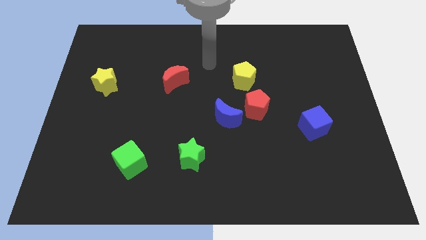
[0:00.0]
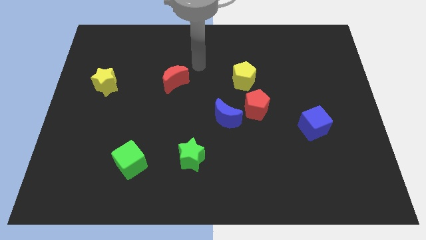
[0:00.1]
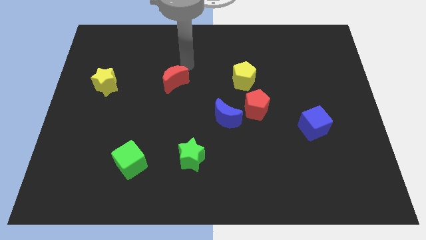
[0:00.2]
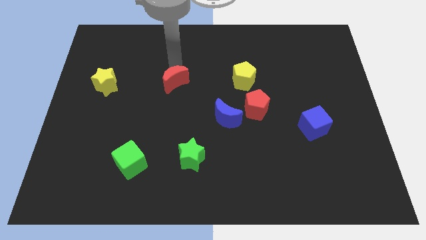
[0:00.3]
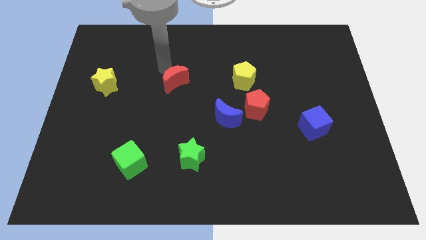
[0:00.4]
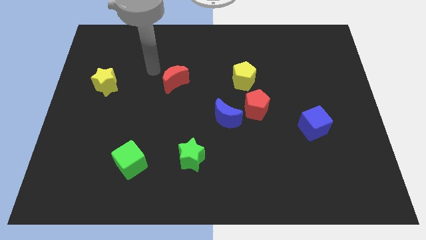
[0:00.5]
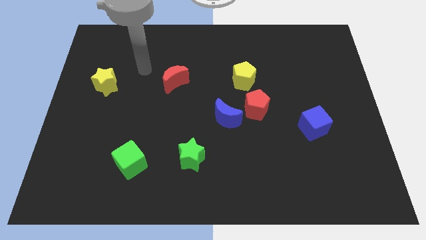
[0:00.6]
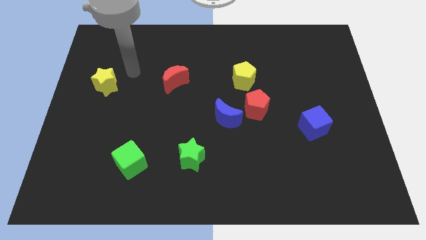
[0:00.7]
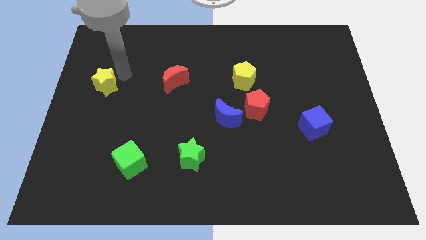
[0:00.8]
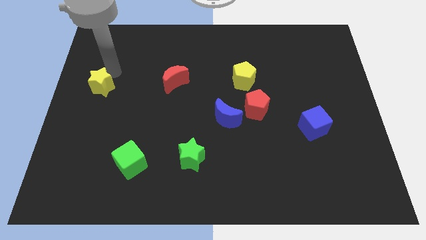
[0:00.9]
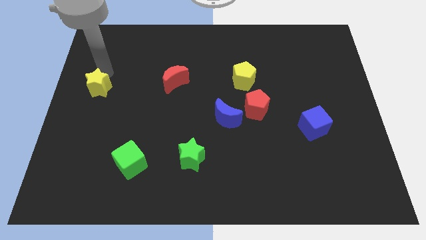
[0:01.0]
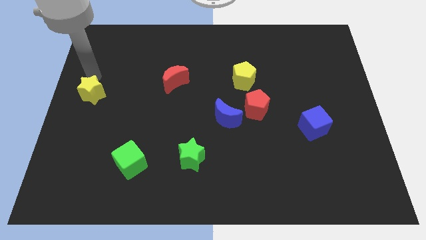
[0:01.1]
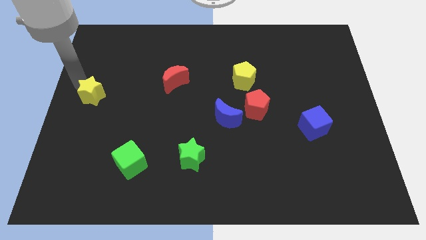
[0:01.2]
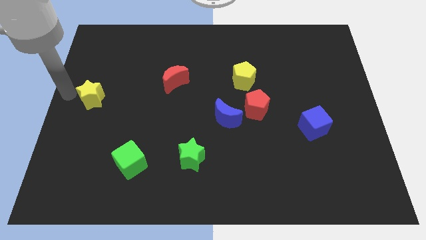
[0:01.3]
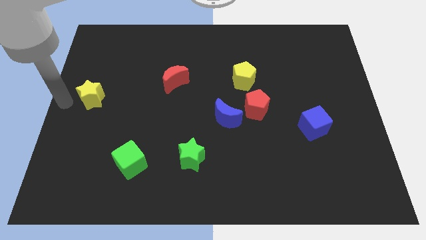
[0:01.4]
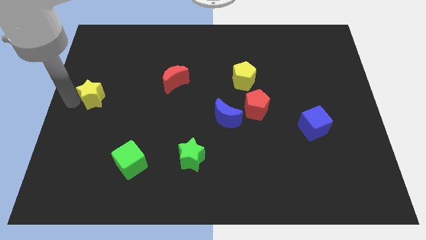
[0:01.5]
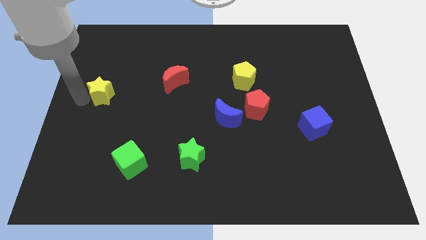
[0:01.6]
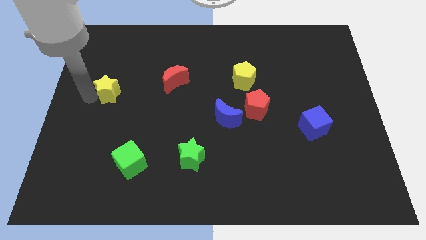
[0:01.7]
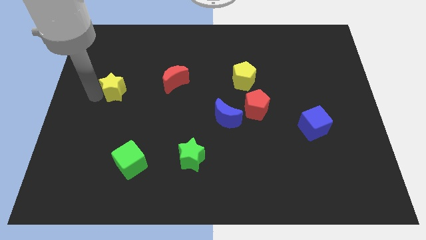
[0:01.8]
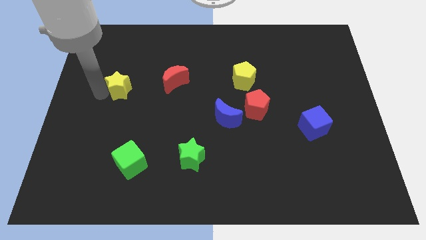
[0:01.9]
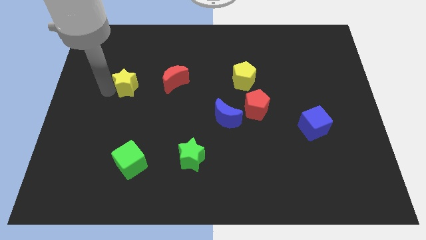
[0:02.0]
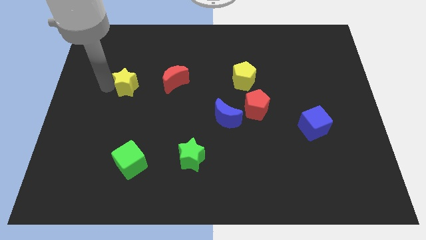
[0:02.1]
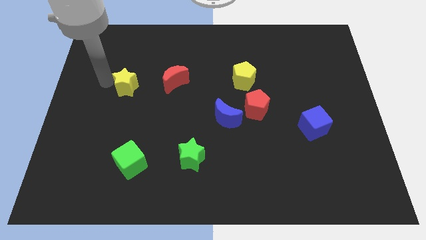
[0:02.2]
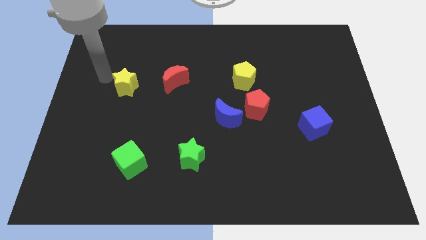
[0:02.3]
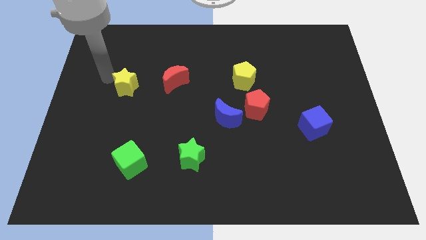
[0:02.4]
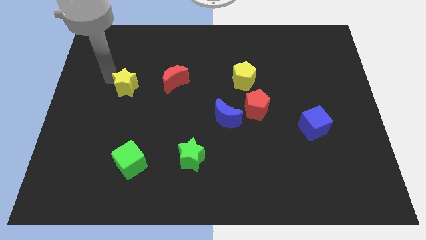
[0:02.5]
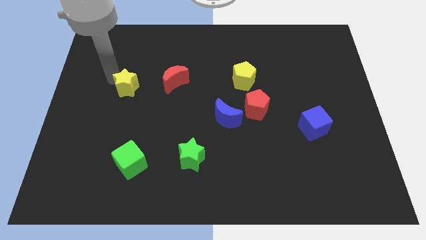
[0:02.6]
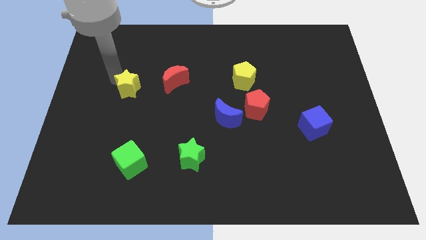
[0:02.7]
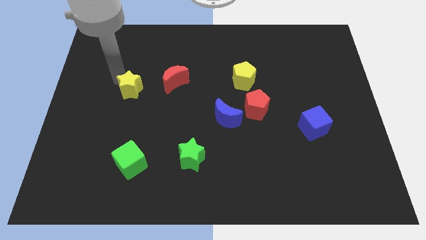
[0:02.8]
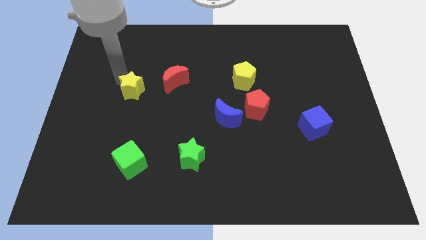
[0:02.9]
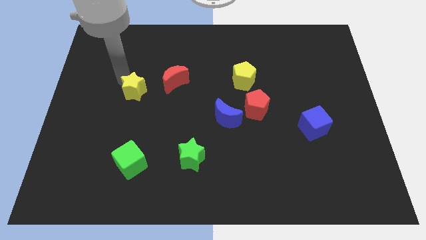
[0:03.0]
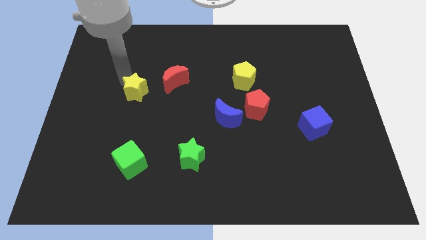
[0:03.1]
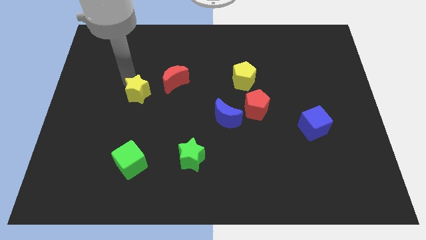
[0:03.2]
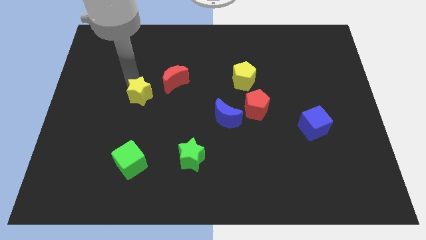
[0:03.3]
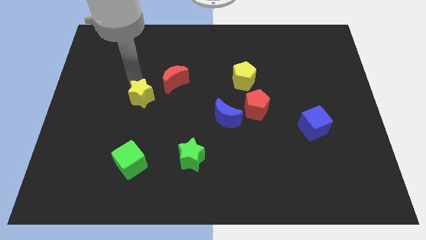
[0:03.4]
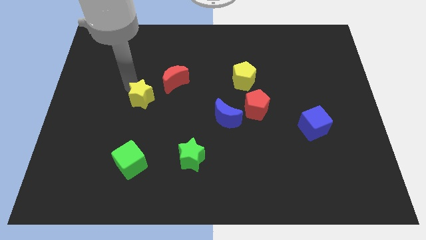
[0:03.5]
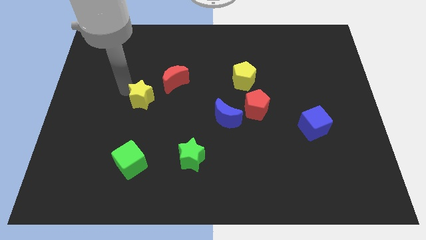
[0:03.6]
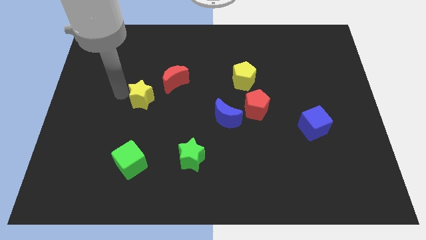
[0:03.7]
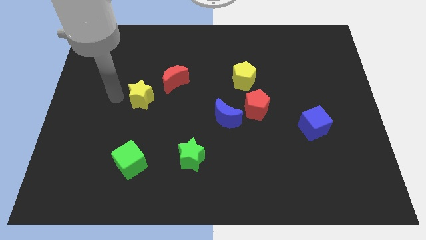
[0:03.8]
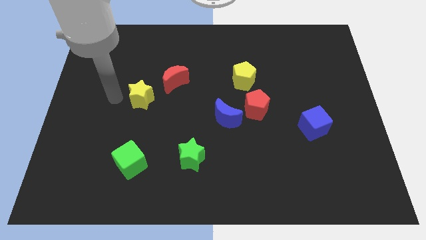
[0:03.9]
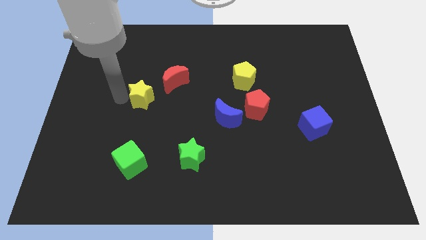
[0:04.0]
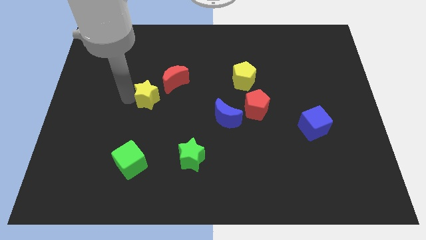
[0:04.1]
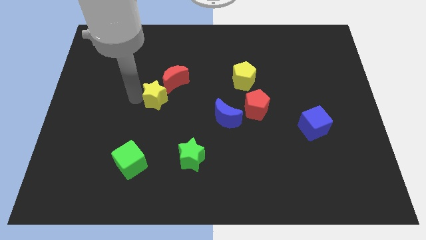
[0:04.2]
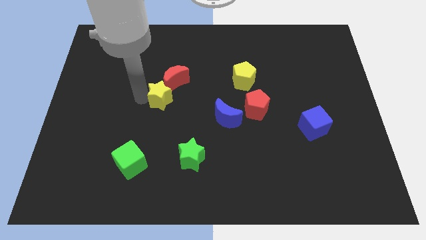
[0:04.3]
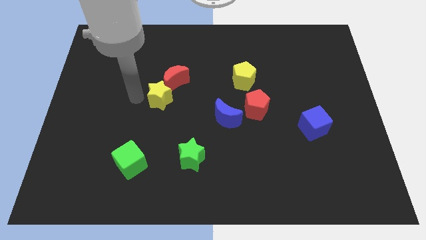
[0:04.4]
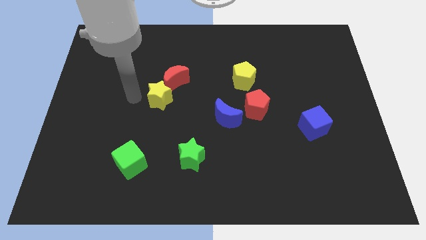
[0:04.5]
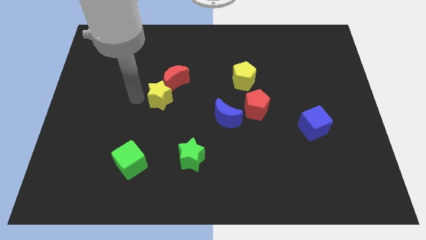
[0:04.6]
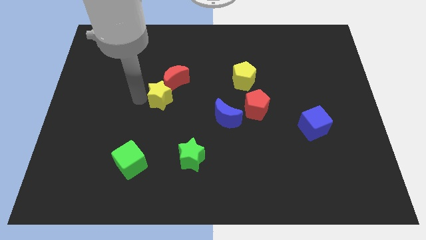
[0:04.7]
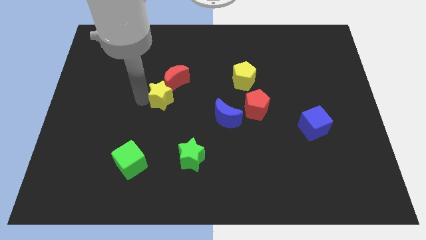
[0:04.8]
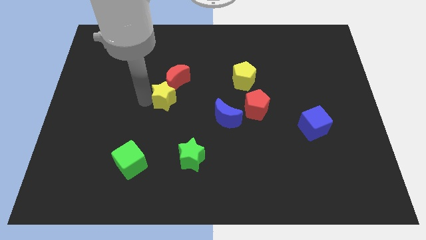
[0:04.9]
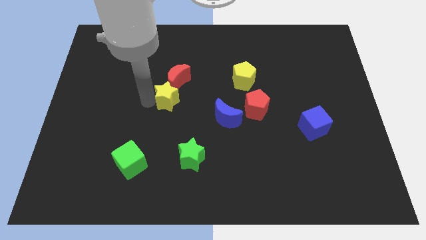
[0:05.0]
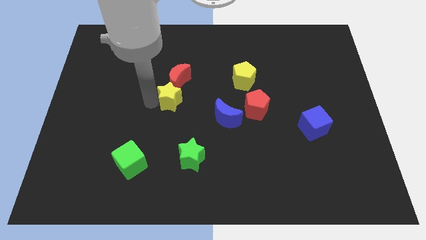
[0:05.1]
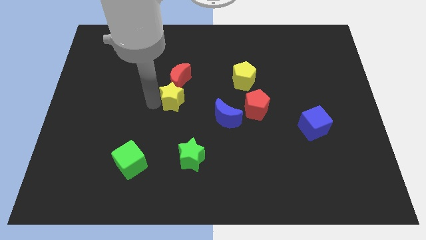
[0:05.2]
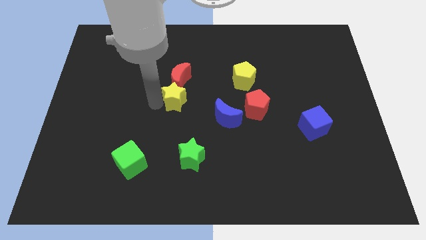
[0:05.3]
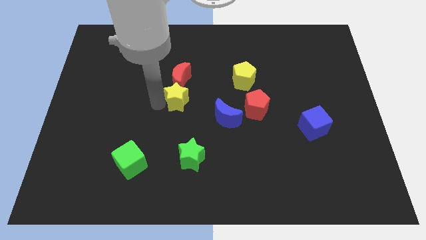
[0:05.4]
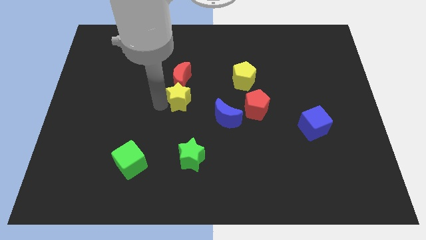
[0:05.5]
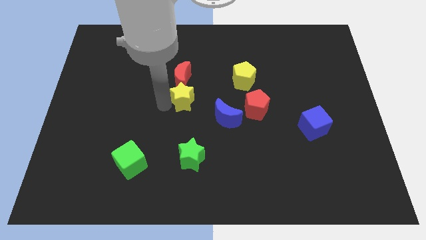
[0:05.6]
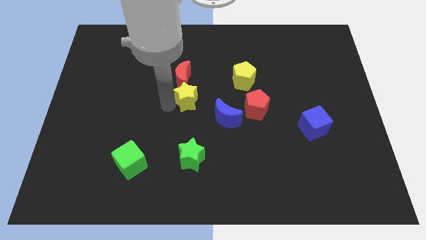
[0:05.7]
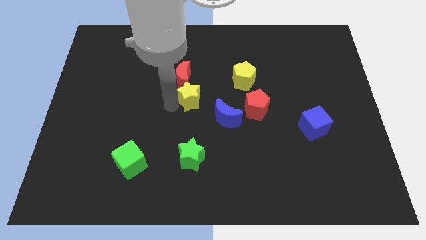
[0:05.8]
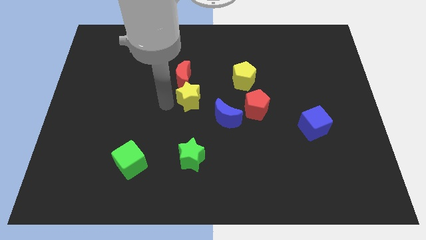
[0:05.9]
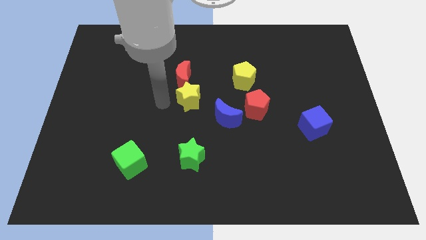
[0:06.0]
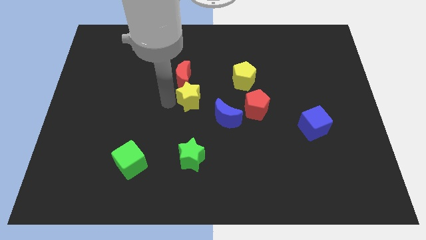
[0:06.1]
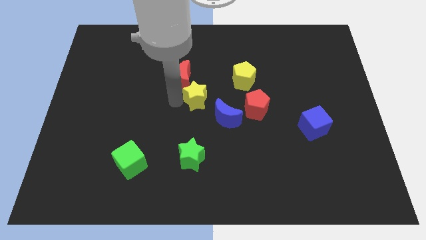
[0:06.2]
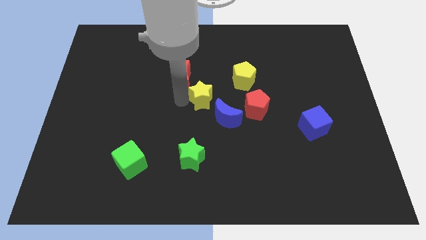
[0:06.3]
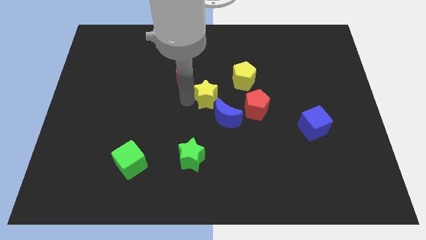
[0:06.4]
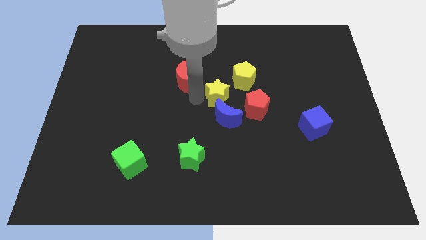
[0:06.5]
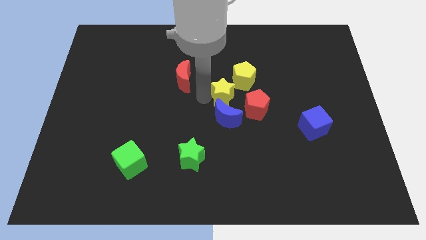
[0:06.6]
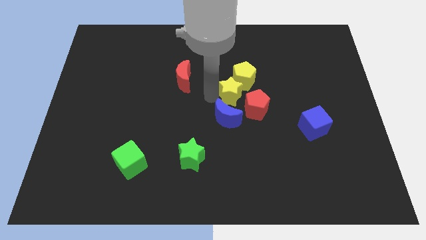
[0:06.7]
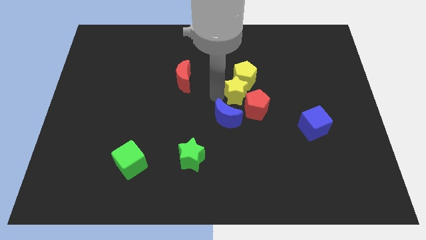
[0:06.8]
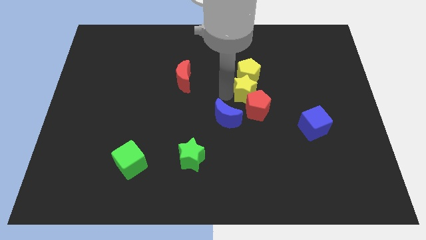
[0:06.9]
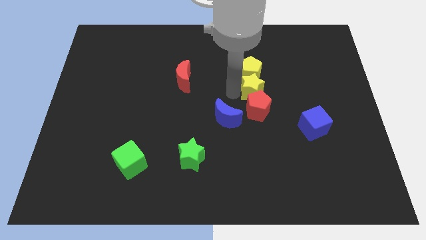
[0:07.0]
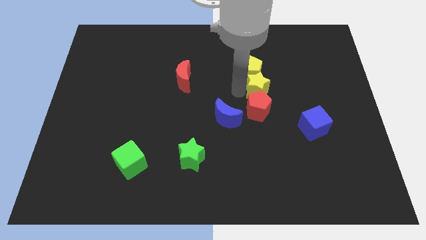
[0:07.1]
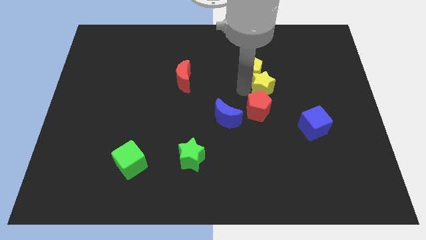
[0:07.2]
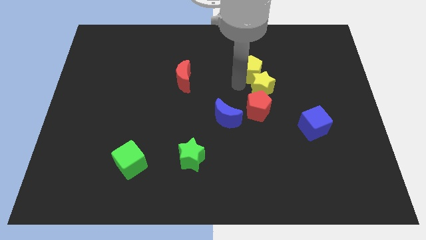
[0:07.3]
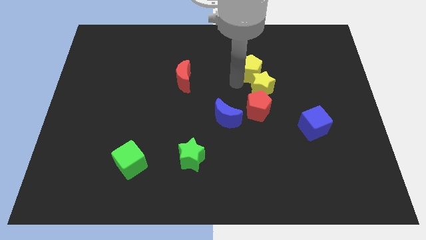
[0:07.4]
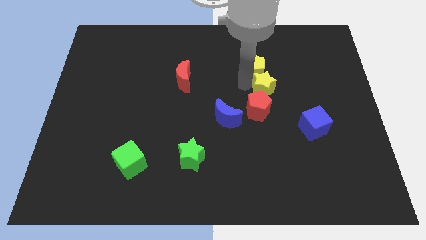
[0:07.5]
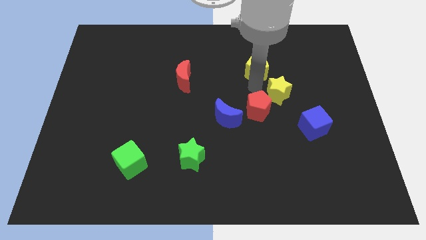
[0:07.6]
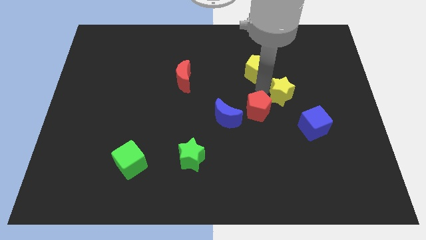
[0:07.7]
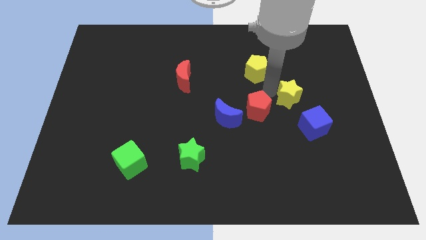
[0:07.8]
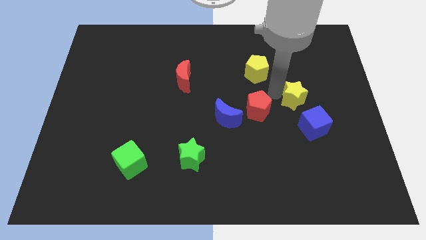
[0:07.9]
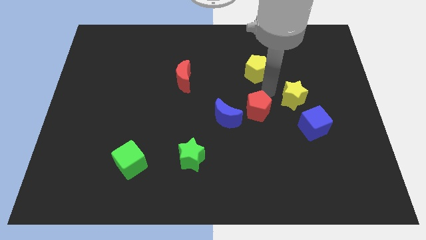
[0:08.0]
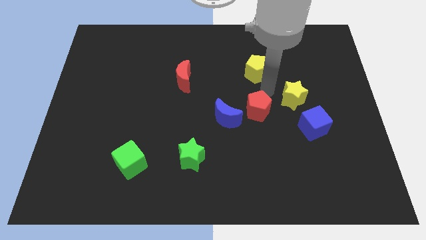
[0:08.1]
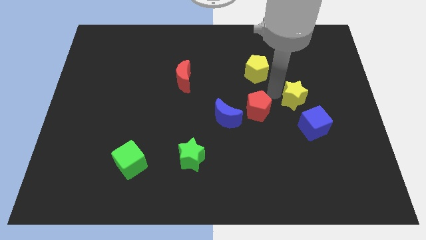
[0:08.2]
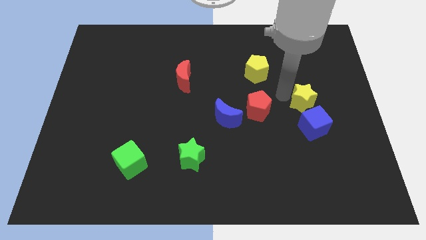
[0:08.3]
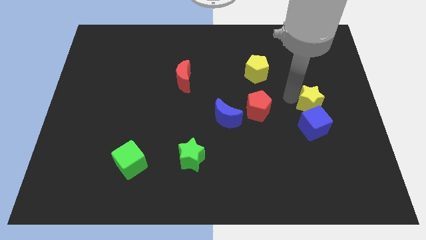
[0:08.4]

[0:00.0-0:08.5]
put the yellow star to the top right of the blue cube
